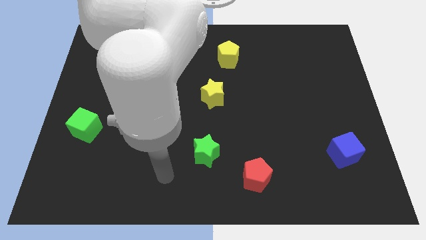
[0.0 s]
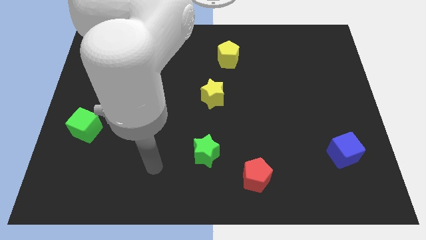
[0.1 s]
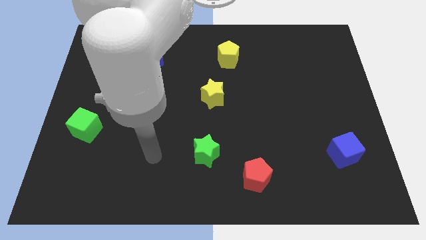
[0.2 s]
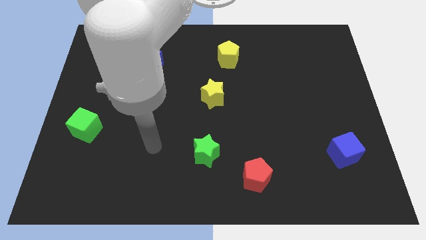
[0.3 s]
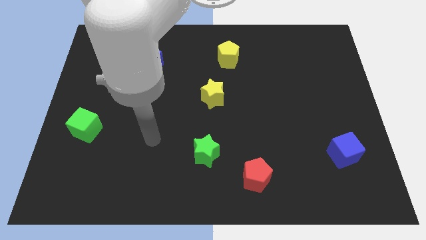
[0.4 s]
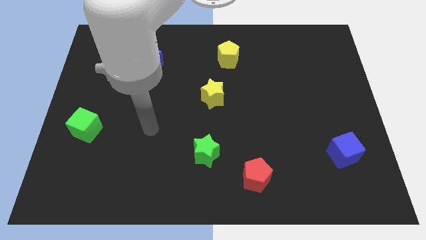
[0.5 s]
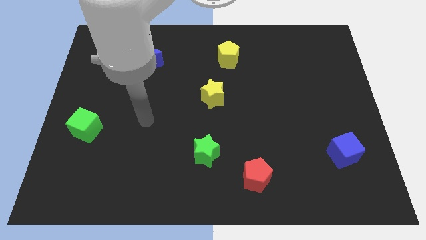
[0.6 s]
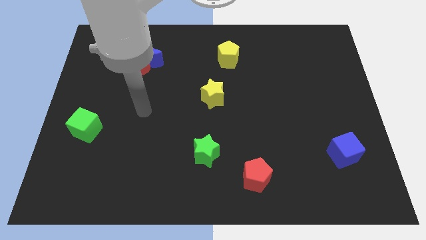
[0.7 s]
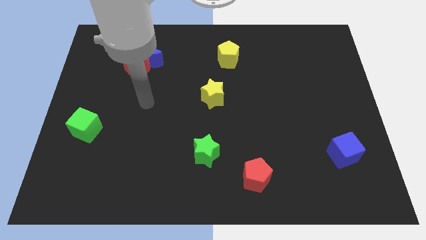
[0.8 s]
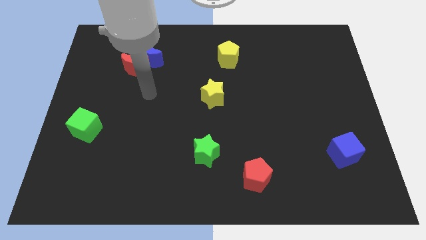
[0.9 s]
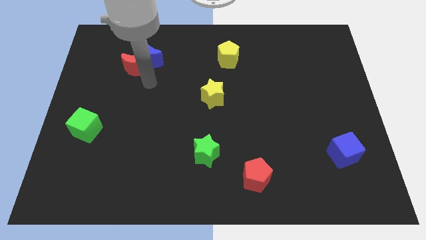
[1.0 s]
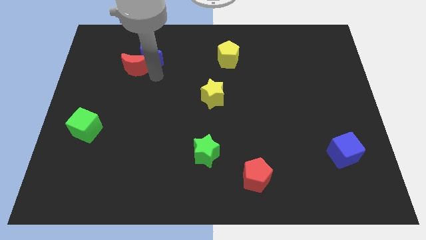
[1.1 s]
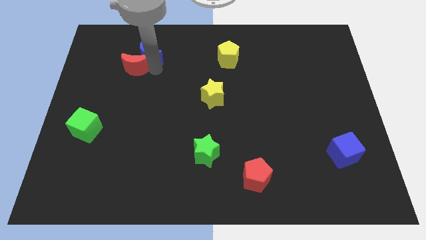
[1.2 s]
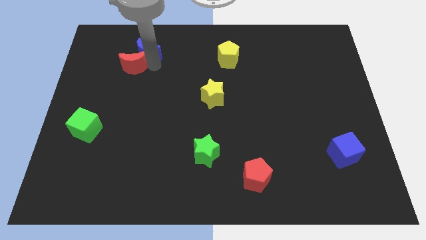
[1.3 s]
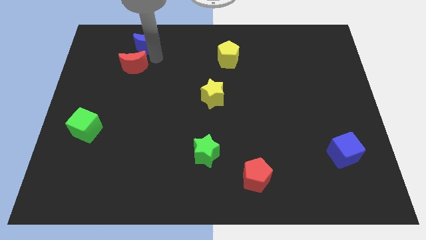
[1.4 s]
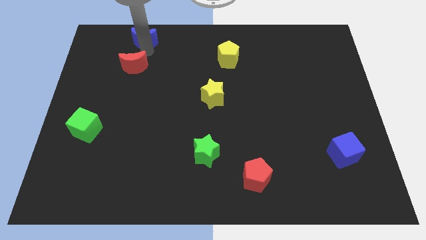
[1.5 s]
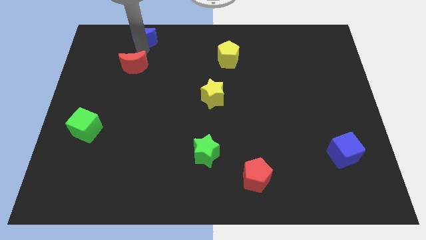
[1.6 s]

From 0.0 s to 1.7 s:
move the red moon away from the blue moon

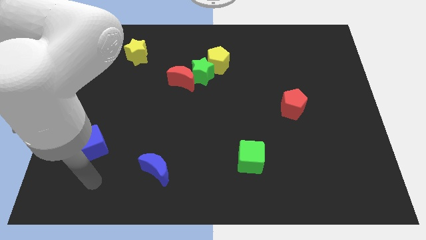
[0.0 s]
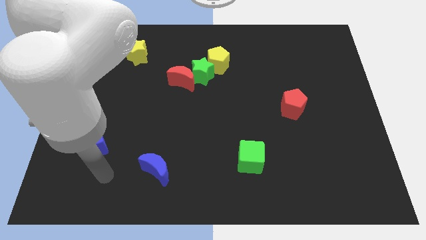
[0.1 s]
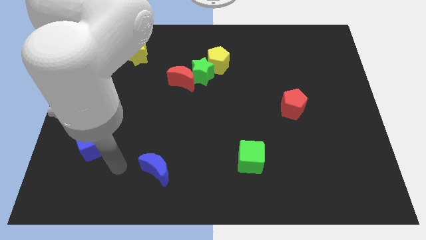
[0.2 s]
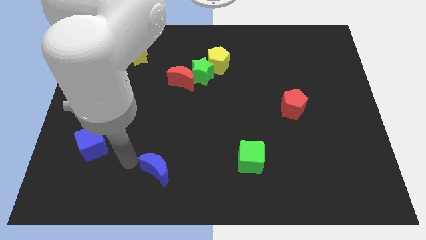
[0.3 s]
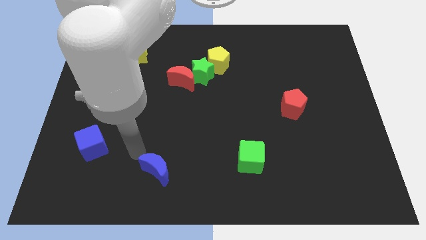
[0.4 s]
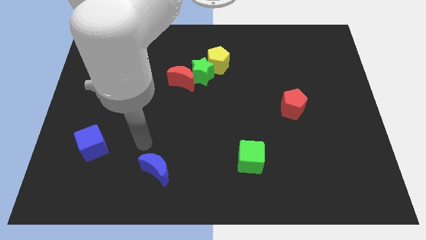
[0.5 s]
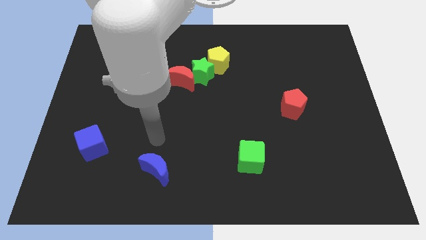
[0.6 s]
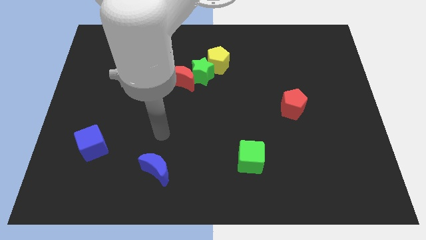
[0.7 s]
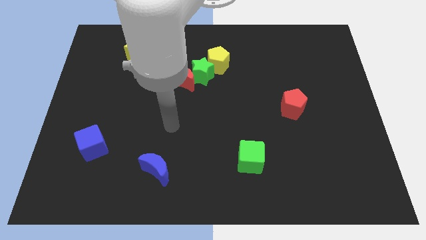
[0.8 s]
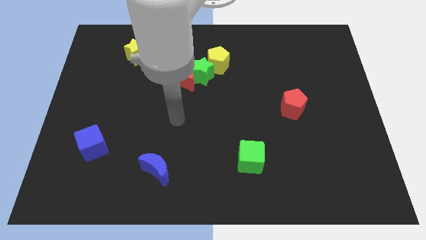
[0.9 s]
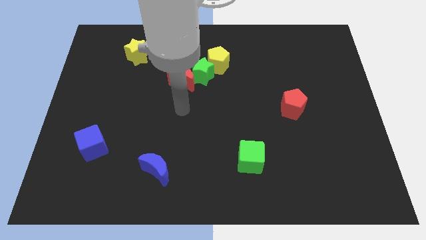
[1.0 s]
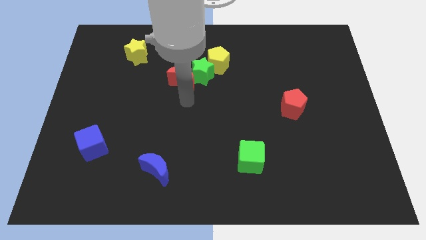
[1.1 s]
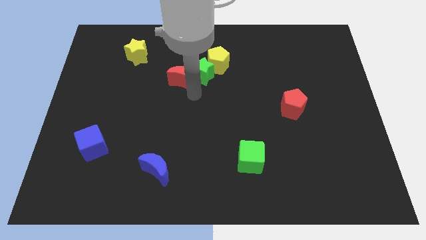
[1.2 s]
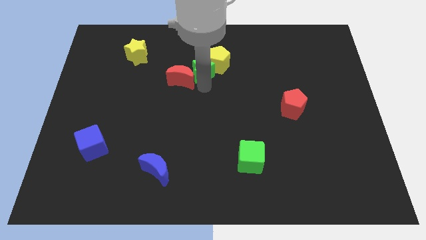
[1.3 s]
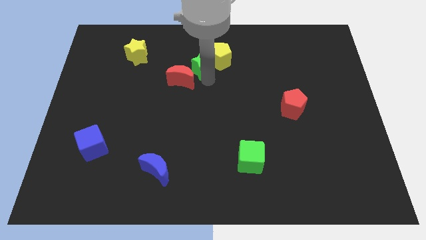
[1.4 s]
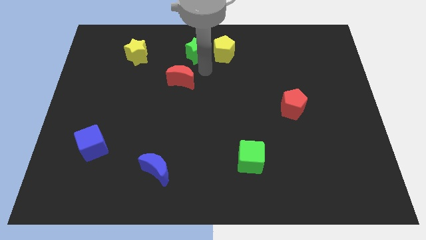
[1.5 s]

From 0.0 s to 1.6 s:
move the red moon away from the green star

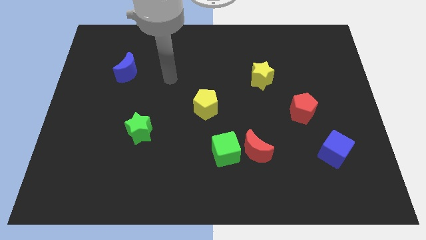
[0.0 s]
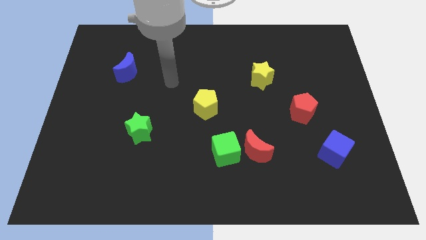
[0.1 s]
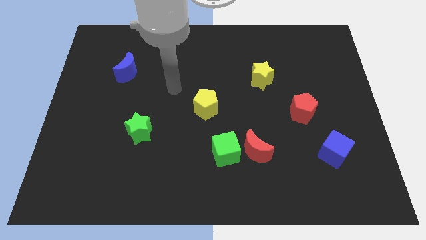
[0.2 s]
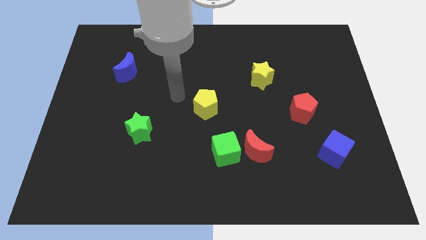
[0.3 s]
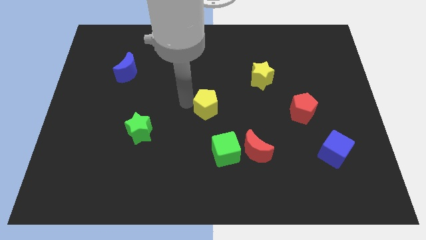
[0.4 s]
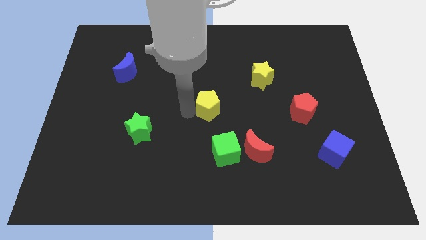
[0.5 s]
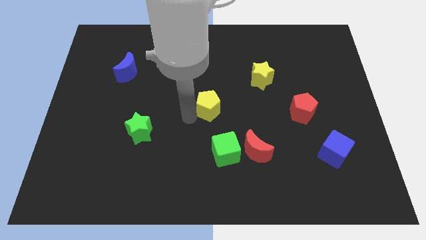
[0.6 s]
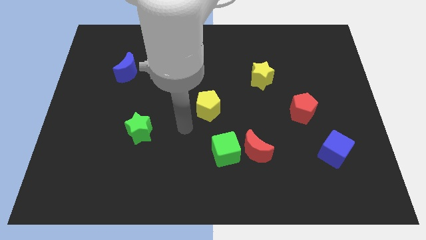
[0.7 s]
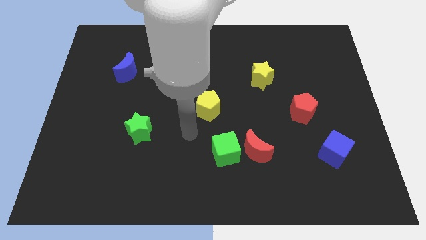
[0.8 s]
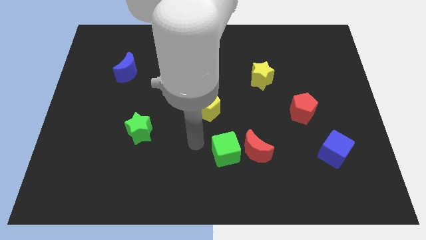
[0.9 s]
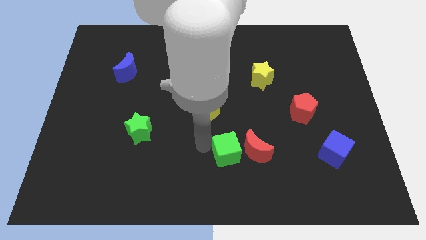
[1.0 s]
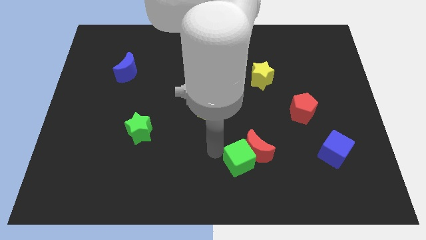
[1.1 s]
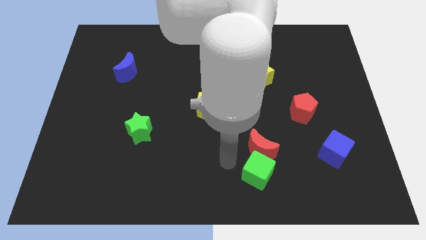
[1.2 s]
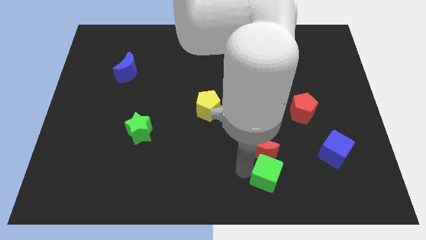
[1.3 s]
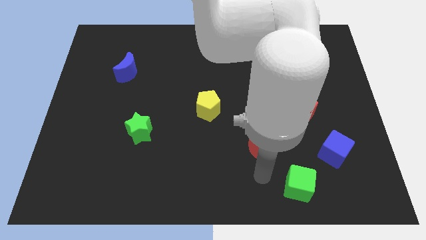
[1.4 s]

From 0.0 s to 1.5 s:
pull the red moon apart from the green cube

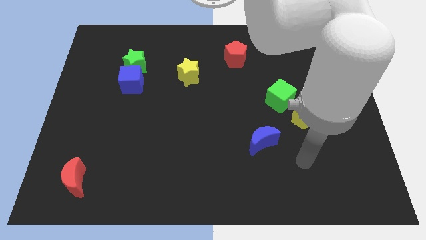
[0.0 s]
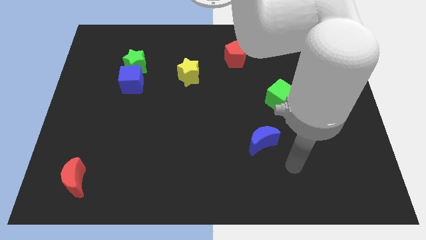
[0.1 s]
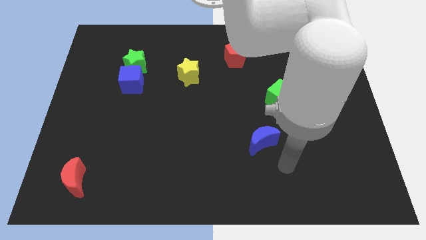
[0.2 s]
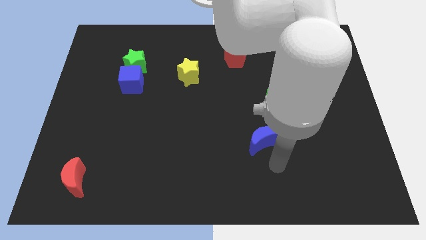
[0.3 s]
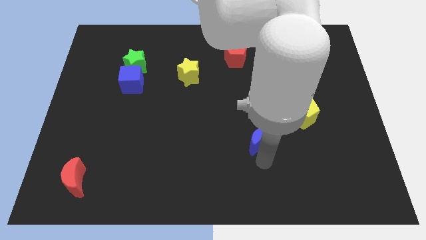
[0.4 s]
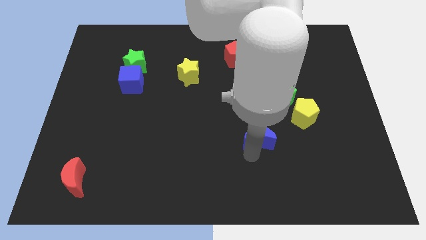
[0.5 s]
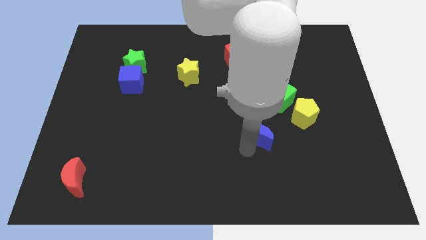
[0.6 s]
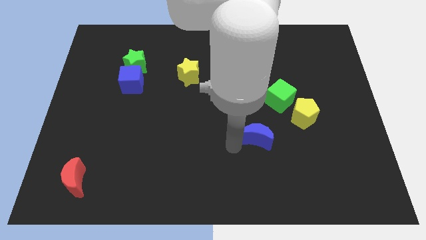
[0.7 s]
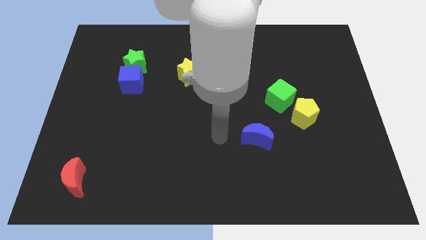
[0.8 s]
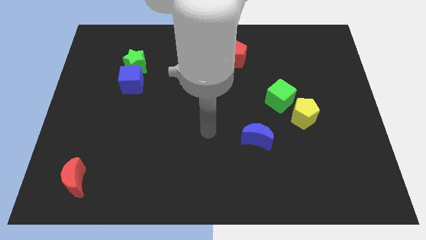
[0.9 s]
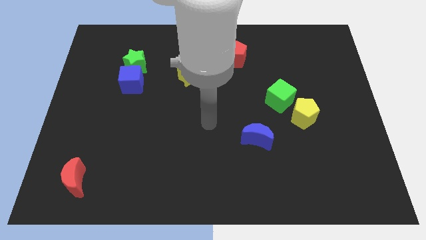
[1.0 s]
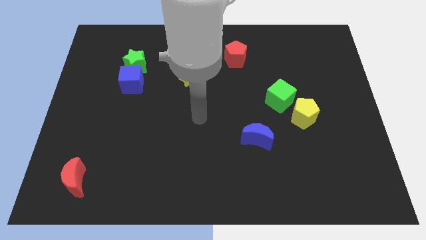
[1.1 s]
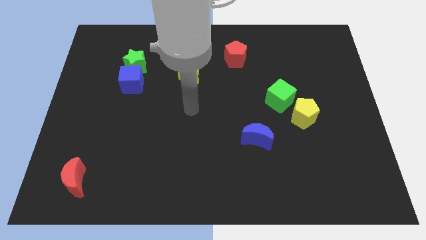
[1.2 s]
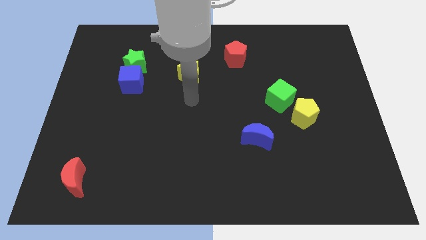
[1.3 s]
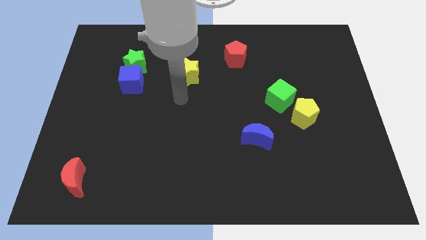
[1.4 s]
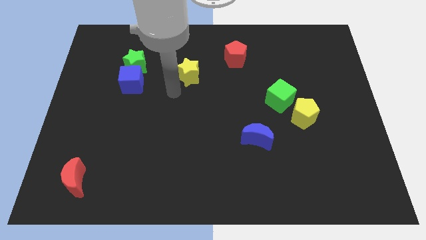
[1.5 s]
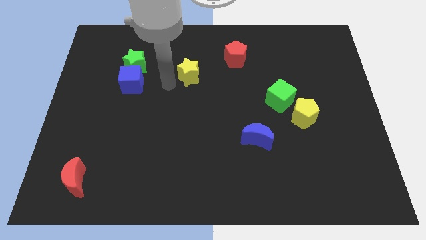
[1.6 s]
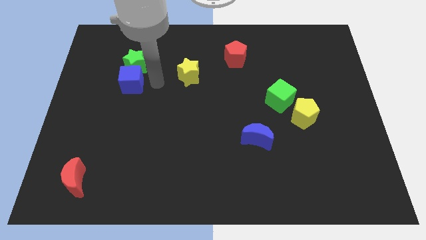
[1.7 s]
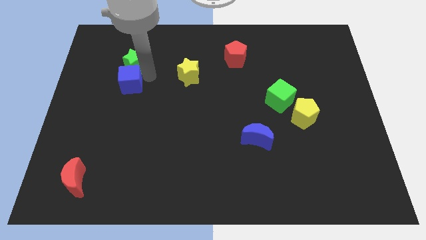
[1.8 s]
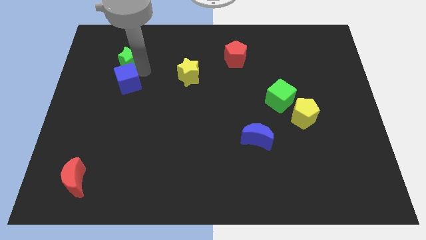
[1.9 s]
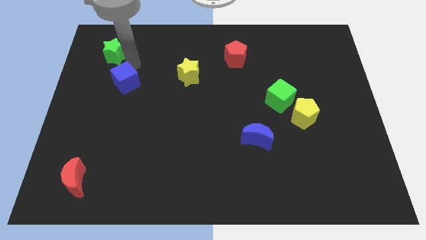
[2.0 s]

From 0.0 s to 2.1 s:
separate the blue cube from the green star

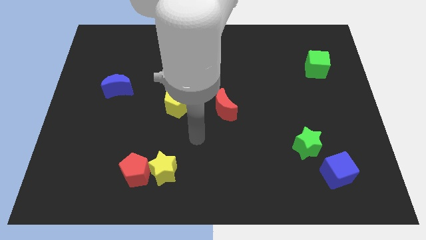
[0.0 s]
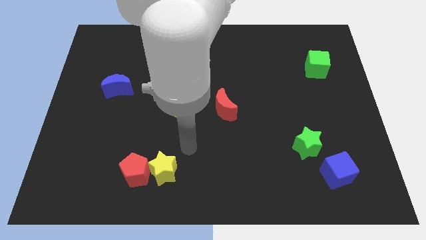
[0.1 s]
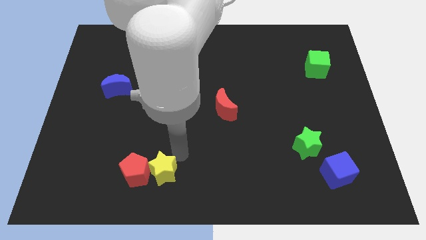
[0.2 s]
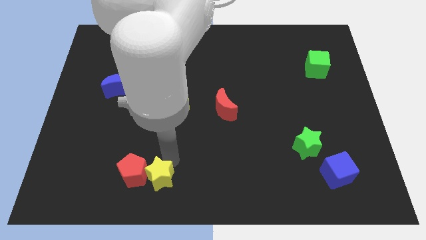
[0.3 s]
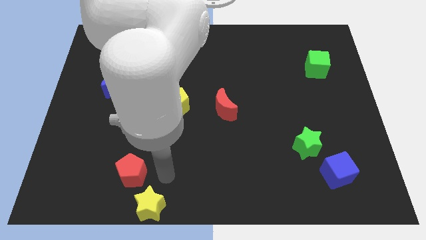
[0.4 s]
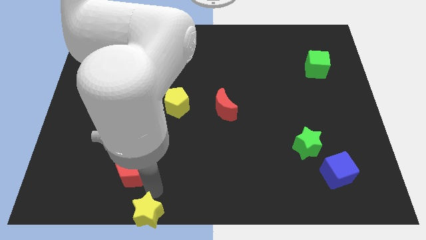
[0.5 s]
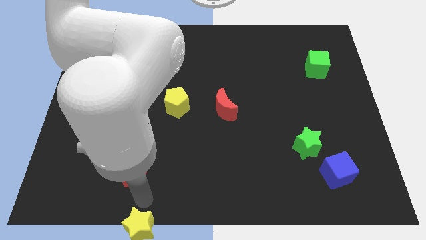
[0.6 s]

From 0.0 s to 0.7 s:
pull the red pentagon apart from the yellow star

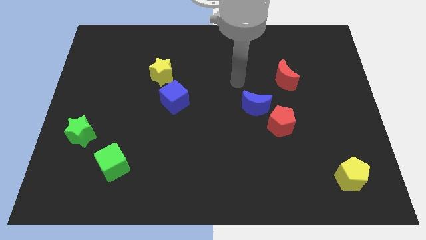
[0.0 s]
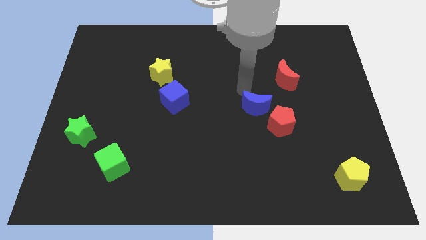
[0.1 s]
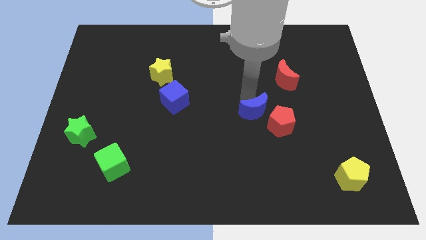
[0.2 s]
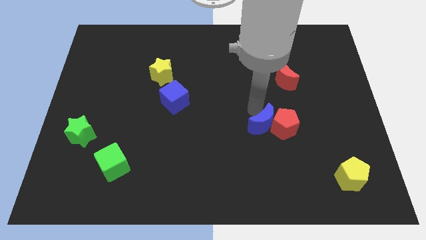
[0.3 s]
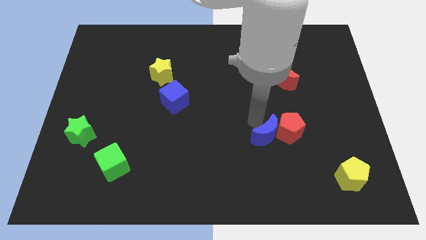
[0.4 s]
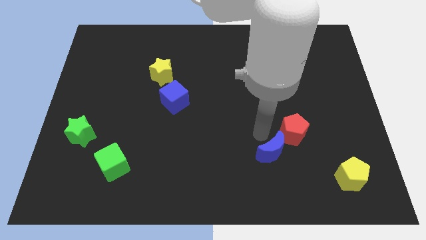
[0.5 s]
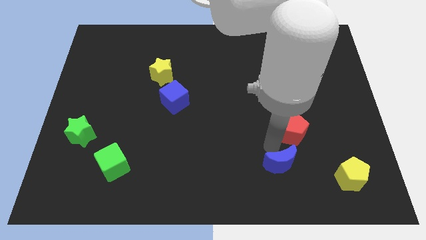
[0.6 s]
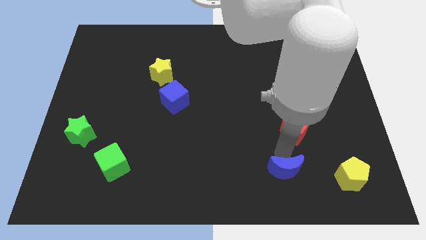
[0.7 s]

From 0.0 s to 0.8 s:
pull the red pentagon apart from the blue moon

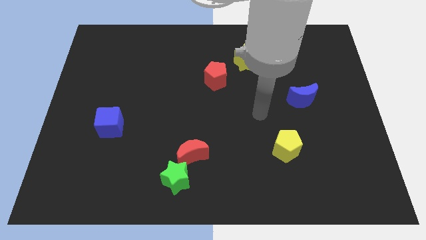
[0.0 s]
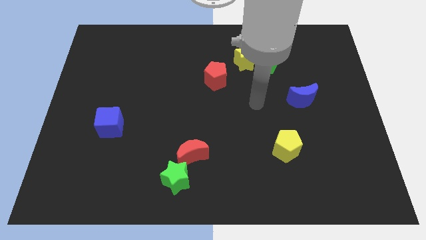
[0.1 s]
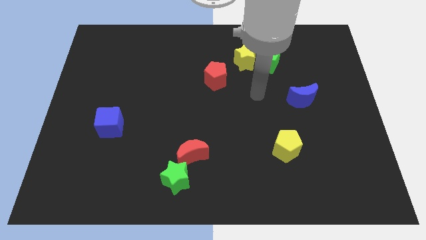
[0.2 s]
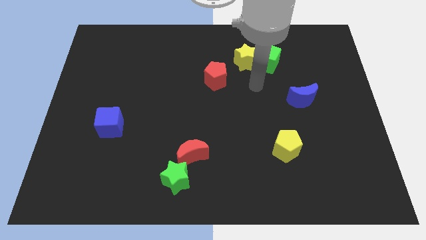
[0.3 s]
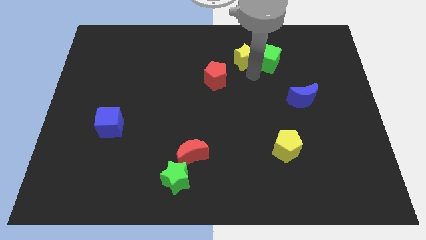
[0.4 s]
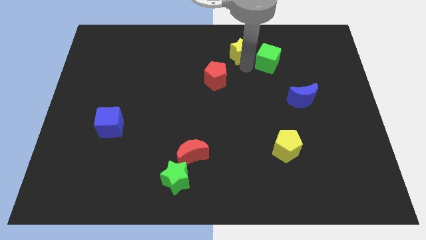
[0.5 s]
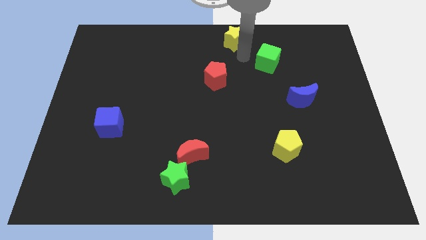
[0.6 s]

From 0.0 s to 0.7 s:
separate the green cube from the yellow star

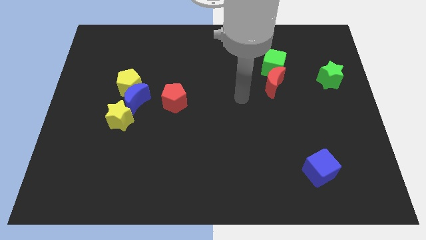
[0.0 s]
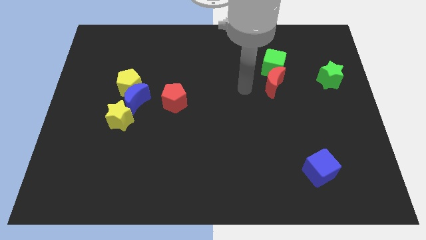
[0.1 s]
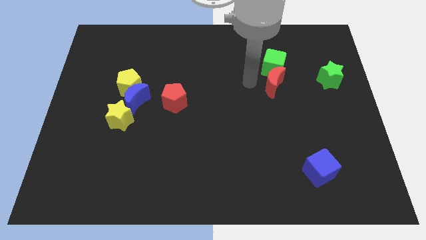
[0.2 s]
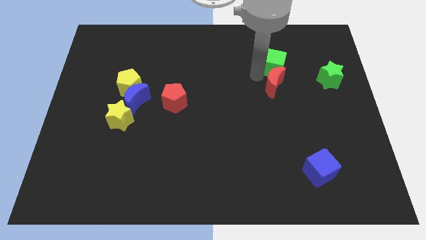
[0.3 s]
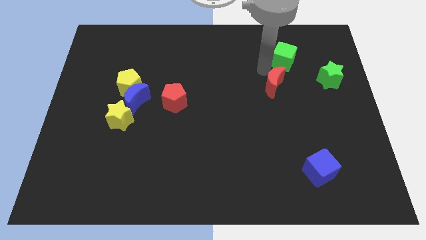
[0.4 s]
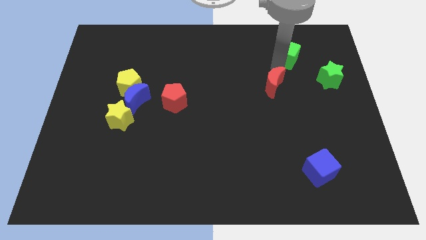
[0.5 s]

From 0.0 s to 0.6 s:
move the red moon away from the green cube
